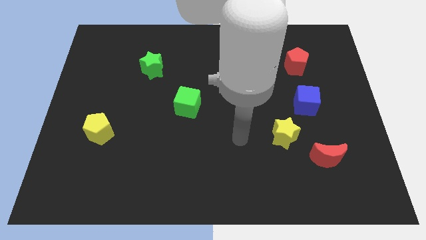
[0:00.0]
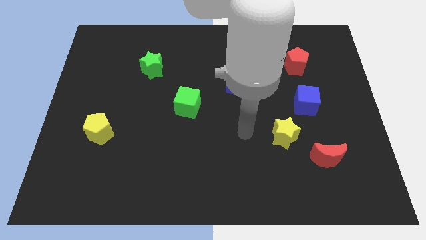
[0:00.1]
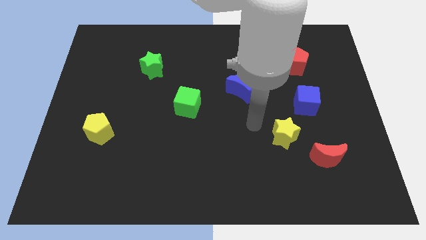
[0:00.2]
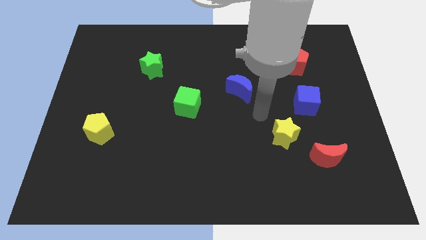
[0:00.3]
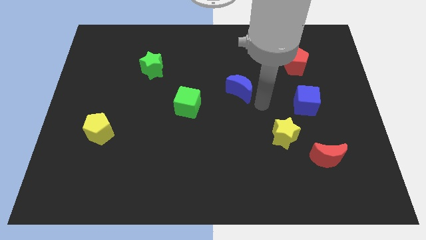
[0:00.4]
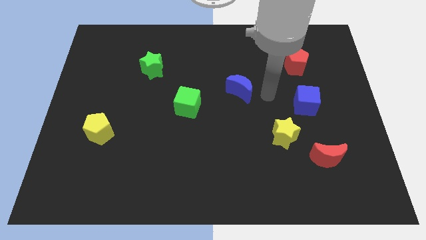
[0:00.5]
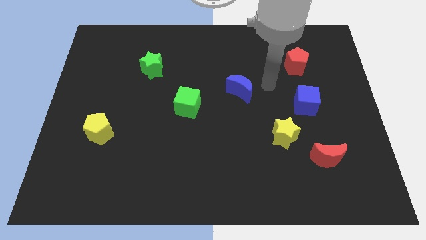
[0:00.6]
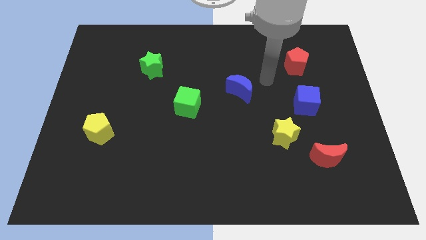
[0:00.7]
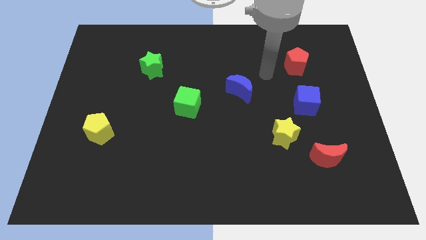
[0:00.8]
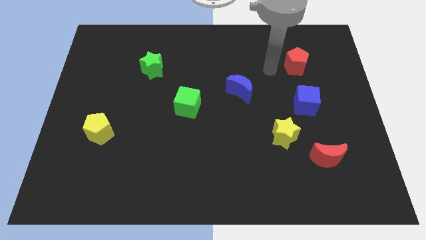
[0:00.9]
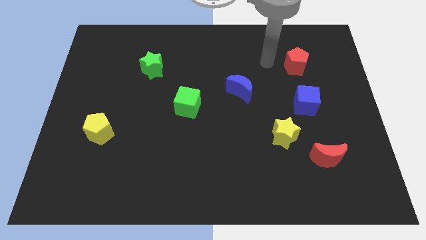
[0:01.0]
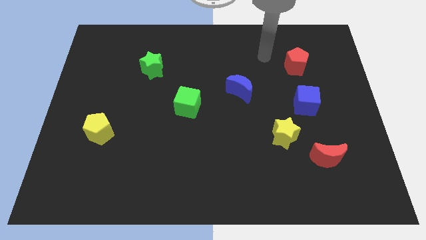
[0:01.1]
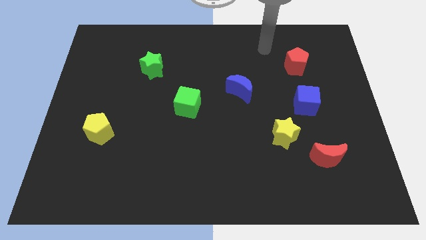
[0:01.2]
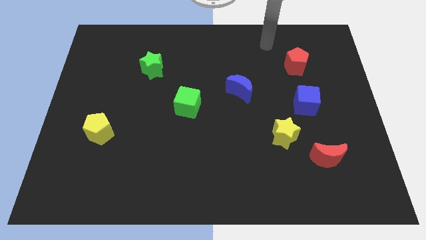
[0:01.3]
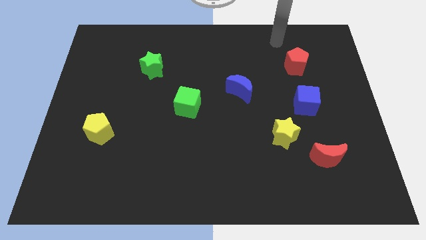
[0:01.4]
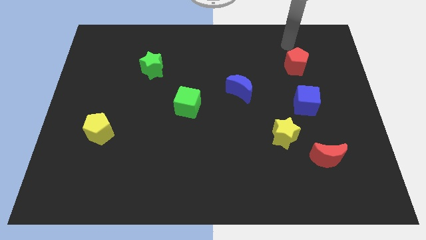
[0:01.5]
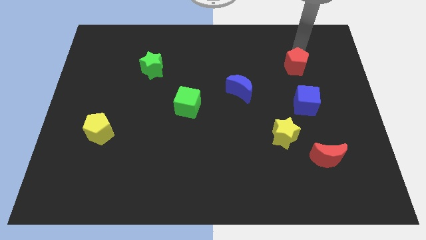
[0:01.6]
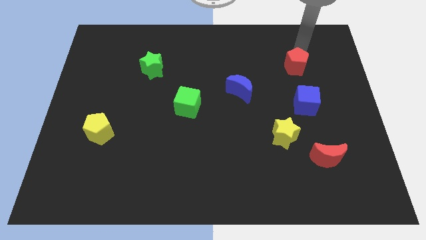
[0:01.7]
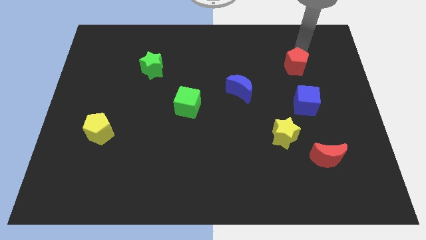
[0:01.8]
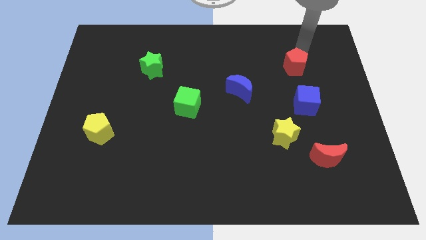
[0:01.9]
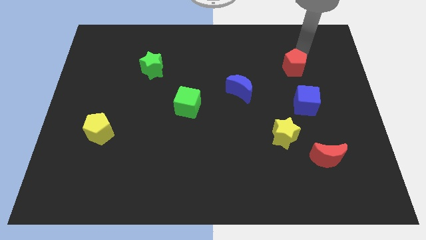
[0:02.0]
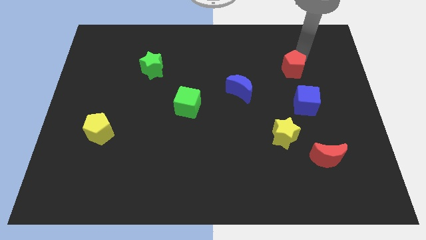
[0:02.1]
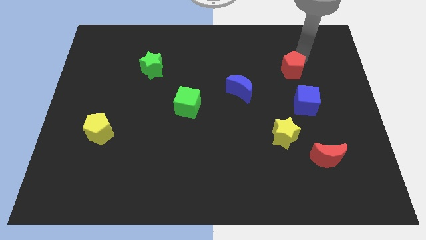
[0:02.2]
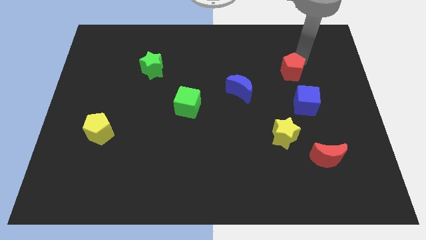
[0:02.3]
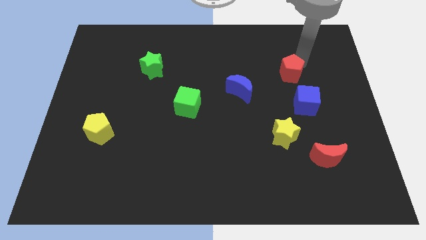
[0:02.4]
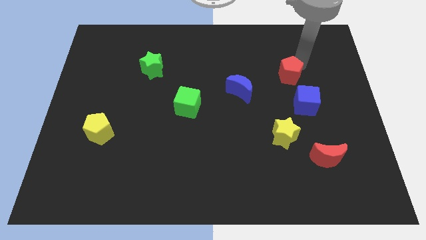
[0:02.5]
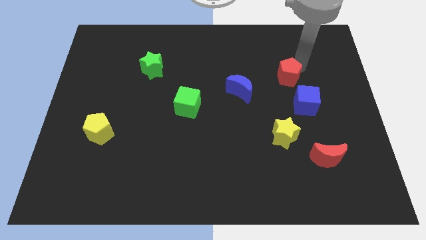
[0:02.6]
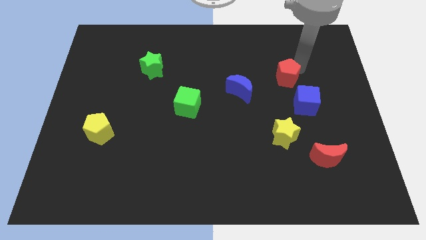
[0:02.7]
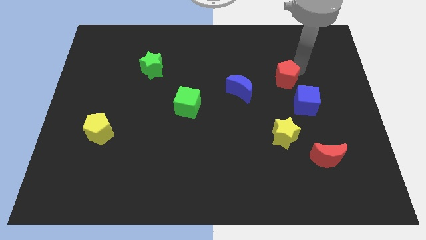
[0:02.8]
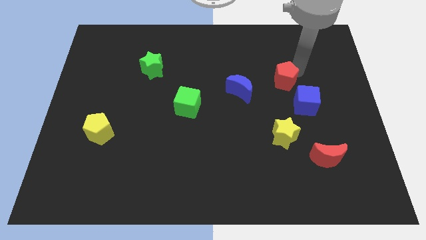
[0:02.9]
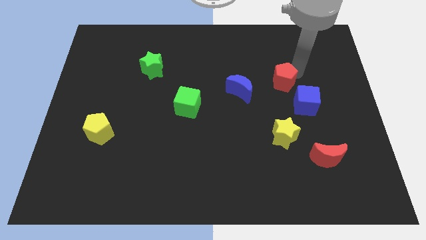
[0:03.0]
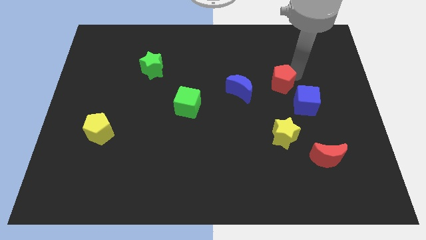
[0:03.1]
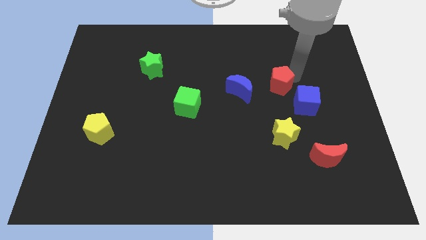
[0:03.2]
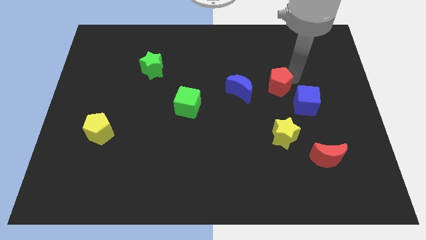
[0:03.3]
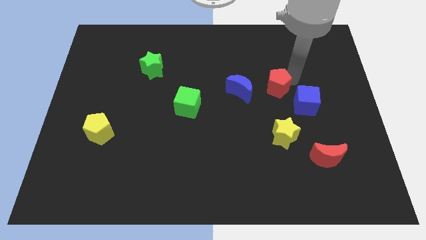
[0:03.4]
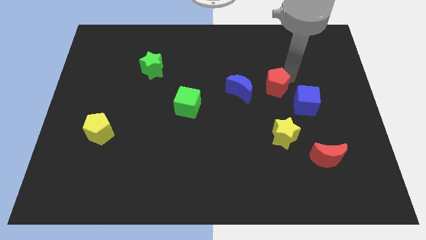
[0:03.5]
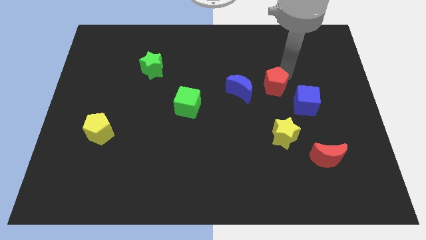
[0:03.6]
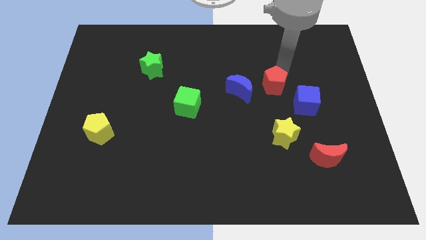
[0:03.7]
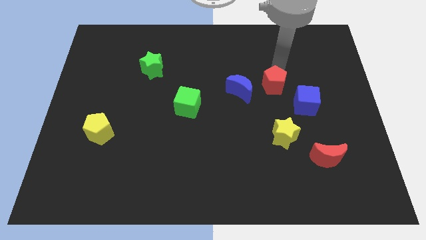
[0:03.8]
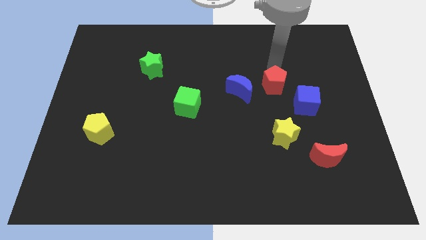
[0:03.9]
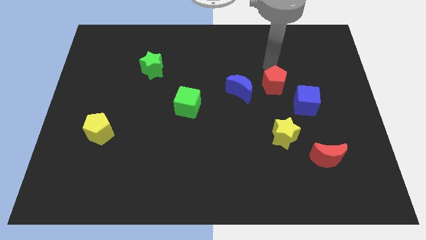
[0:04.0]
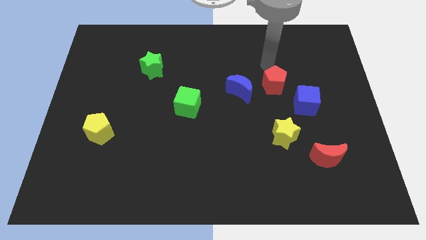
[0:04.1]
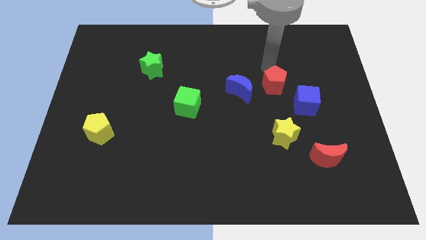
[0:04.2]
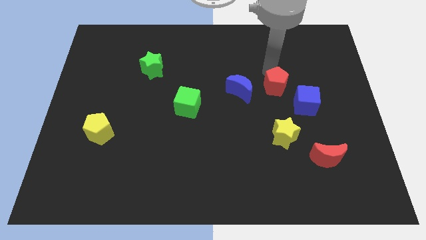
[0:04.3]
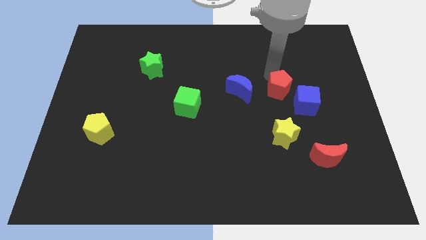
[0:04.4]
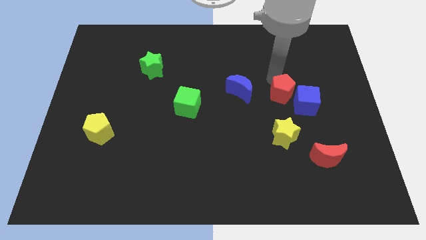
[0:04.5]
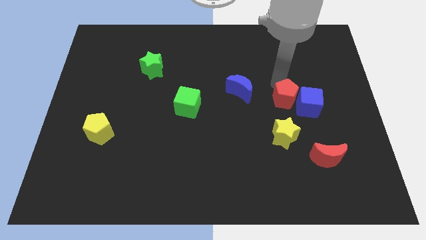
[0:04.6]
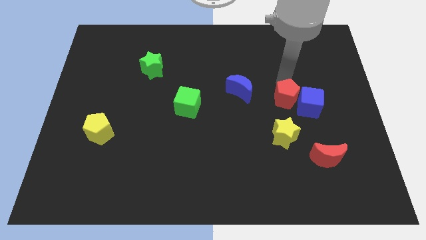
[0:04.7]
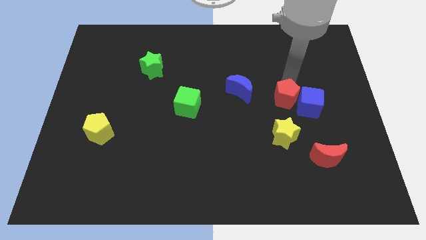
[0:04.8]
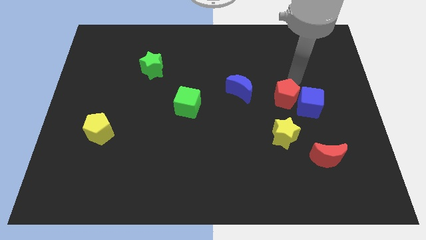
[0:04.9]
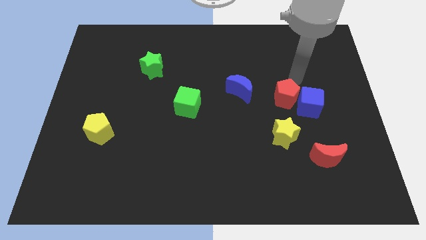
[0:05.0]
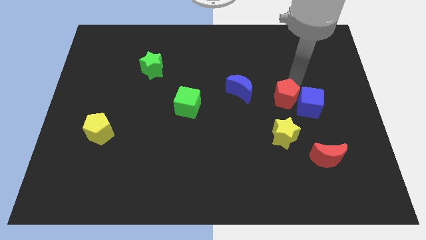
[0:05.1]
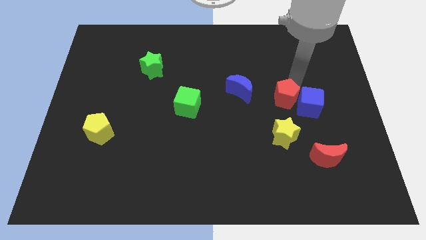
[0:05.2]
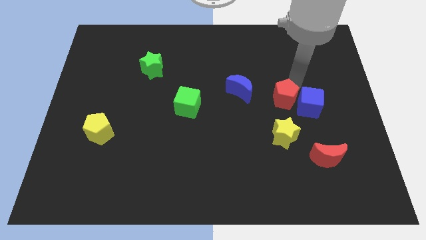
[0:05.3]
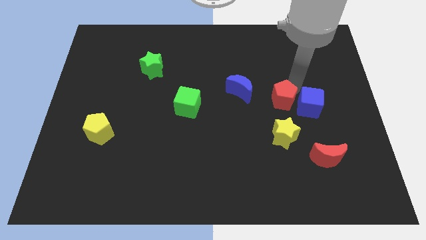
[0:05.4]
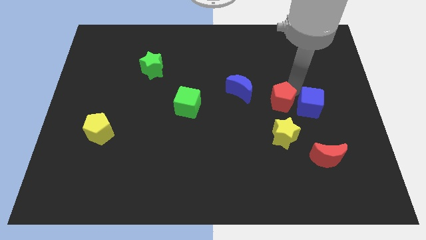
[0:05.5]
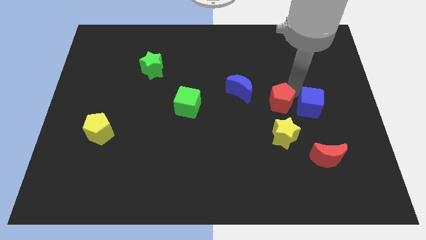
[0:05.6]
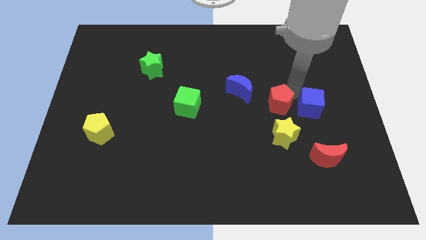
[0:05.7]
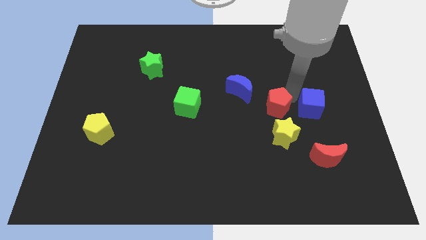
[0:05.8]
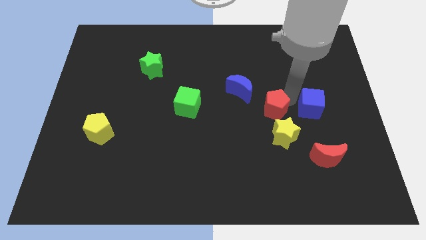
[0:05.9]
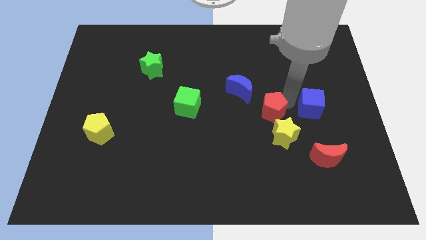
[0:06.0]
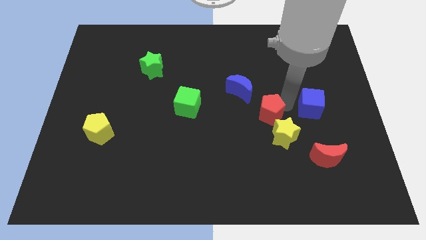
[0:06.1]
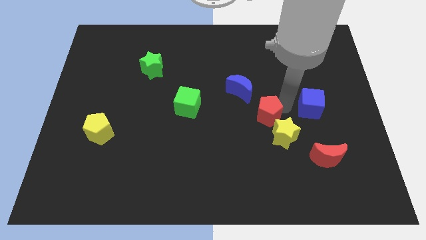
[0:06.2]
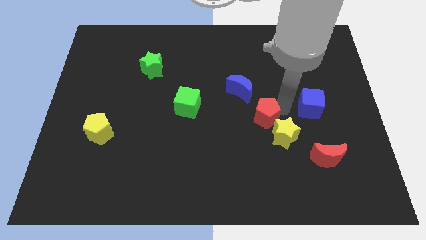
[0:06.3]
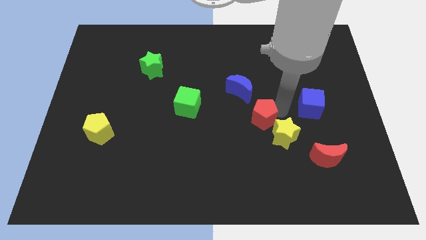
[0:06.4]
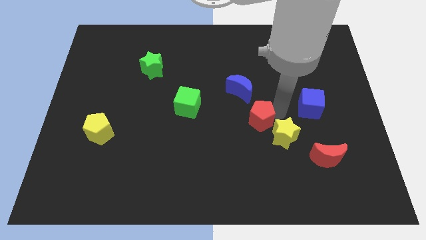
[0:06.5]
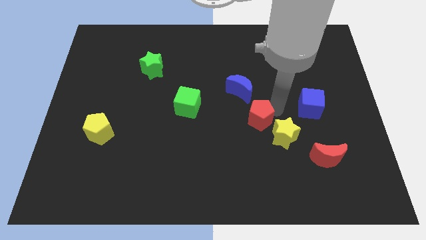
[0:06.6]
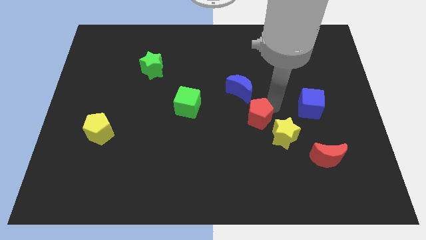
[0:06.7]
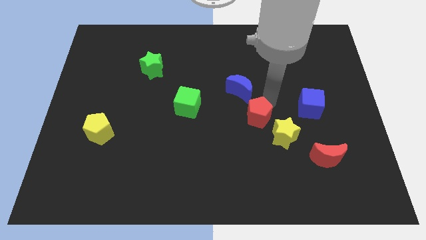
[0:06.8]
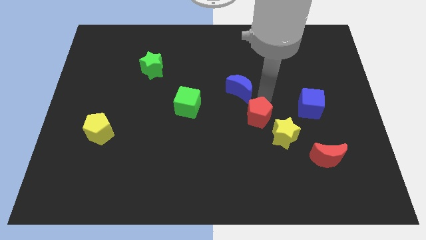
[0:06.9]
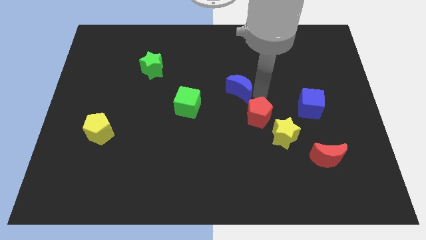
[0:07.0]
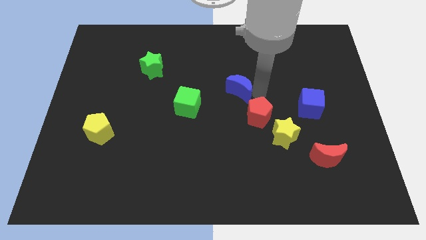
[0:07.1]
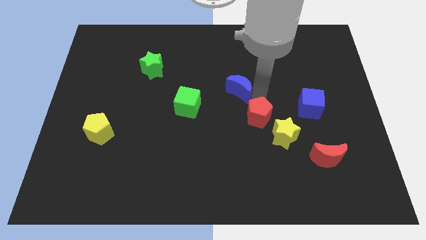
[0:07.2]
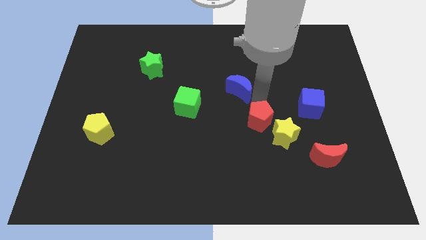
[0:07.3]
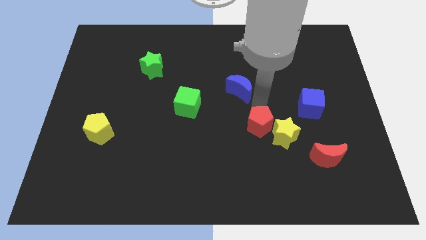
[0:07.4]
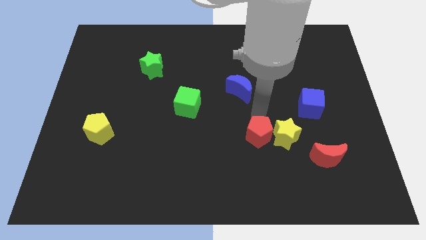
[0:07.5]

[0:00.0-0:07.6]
slide the red pentagon to the bottom left side of the yellow star
